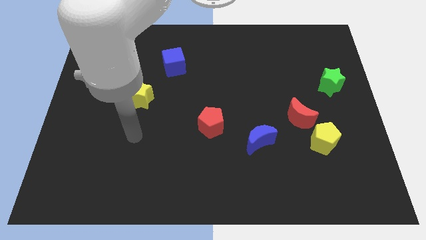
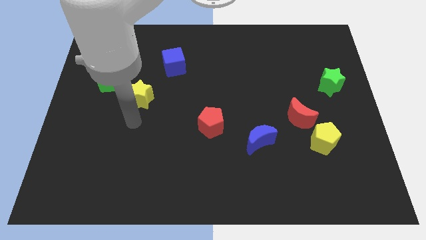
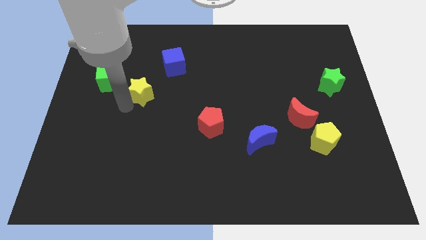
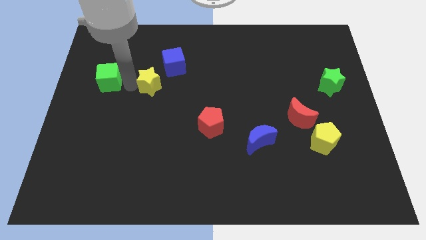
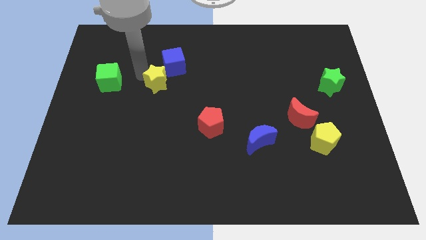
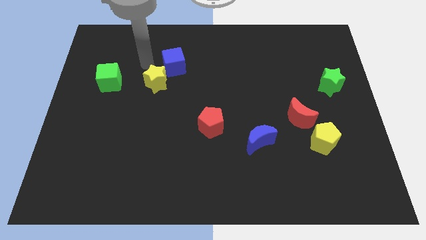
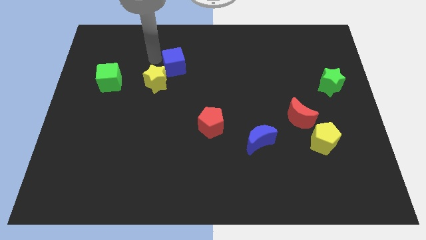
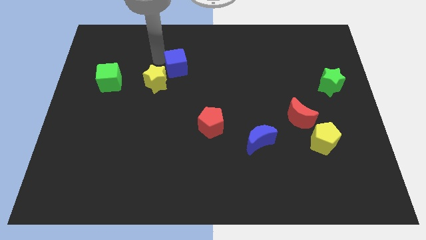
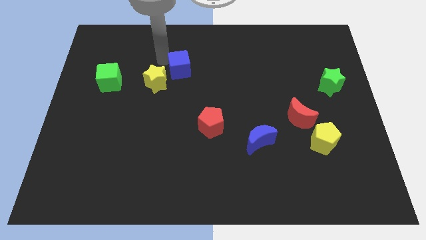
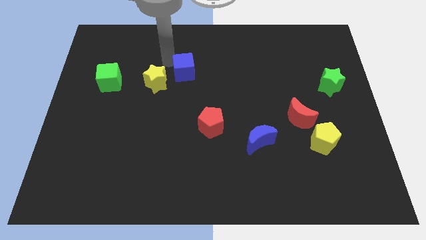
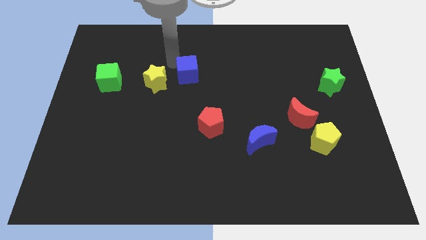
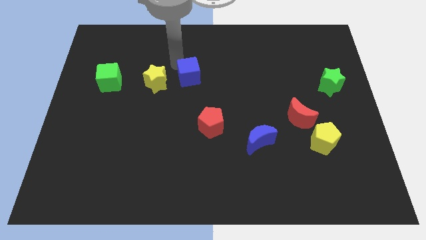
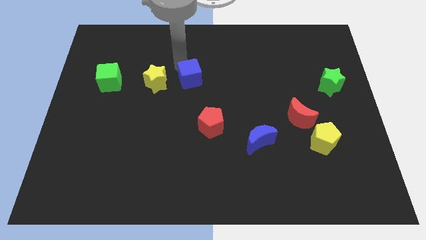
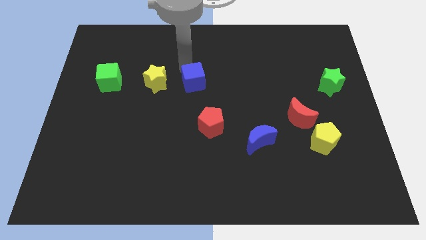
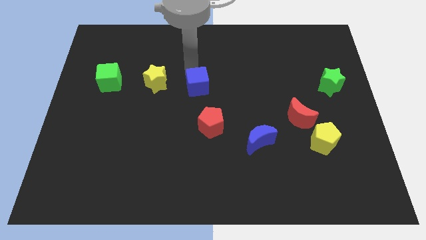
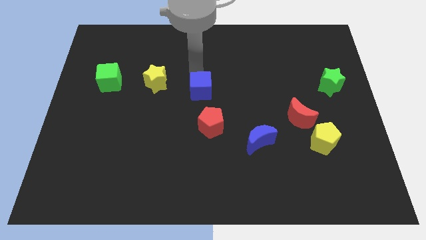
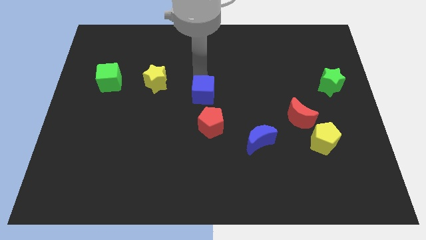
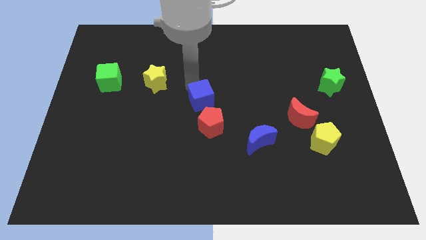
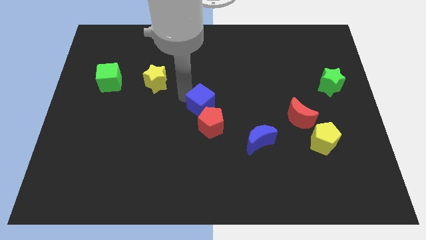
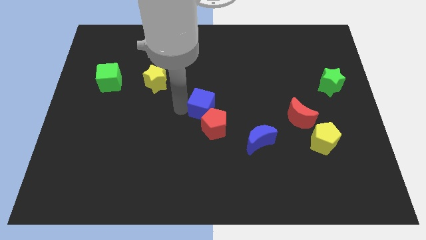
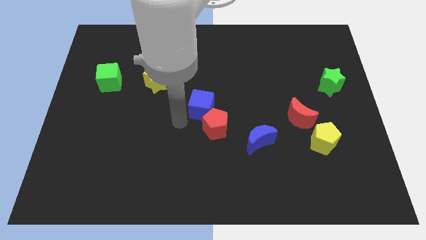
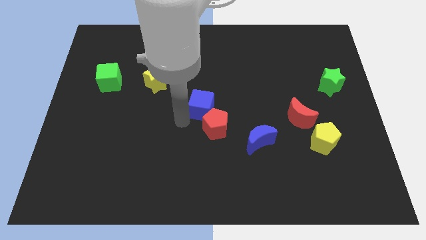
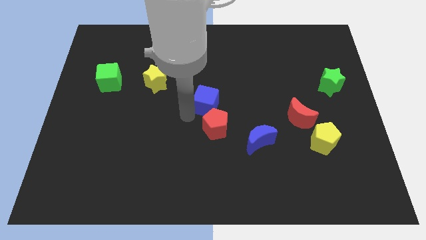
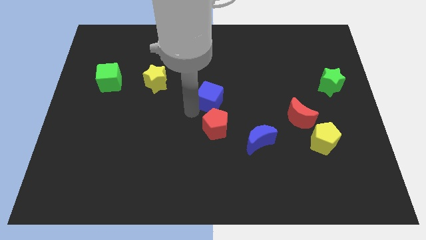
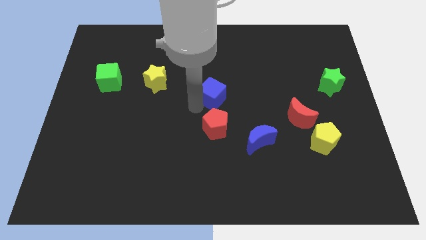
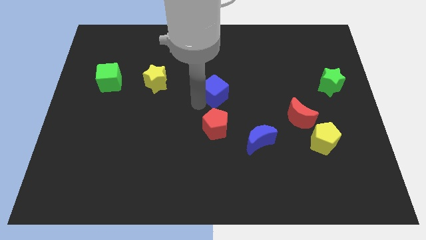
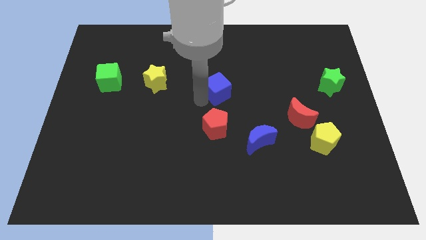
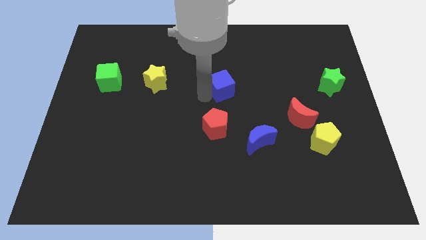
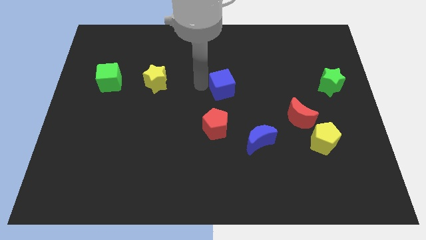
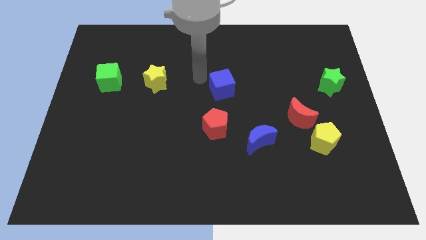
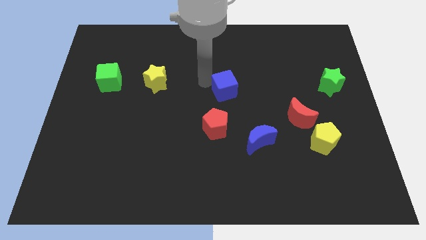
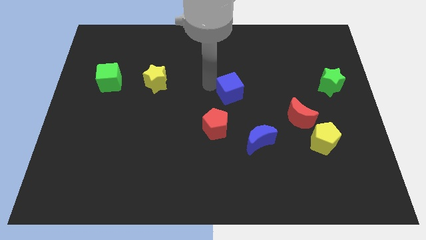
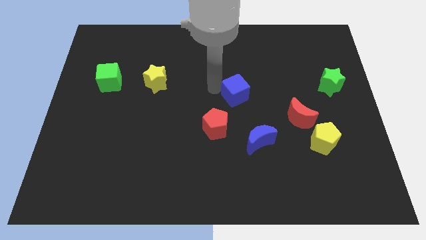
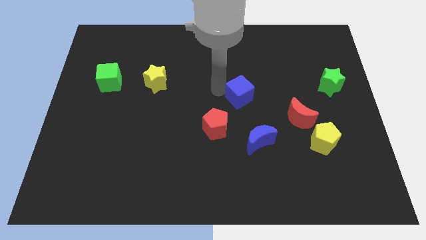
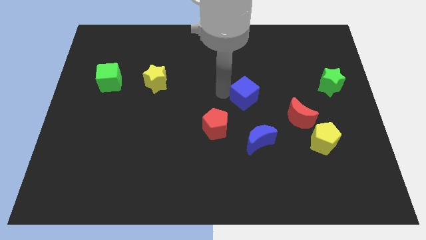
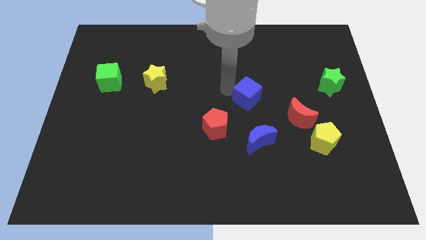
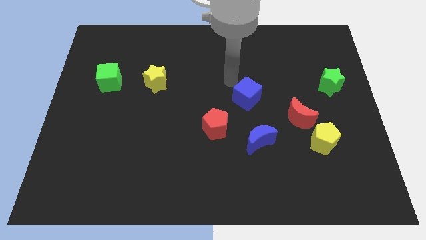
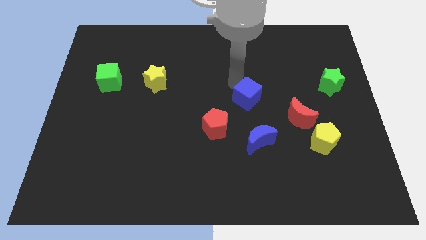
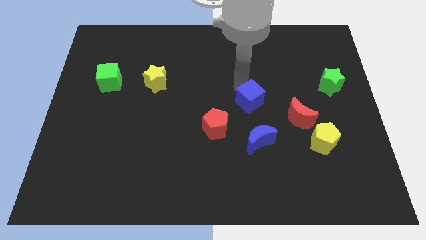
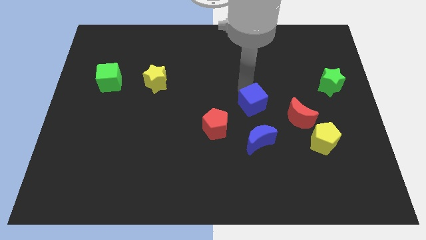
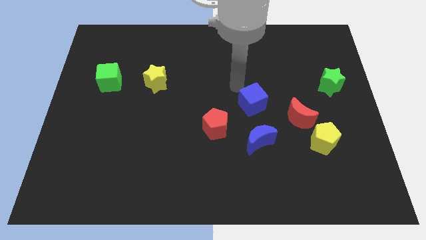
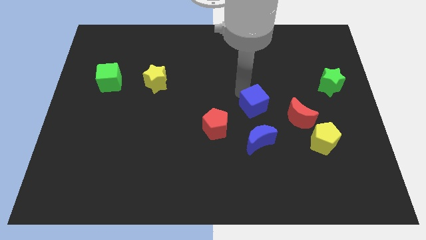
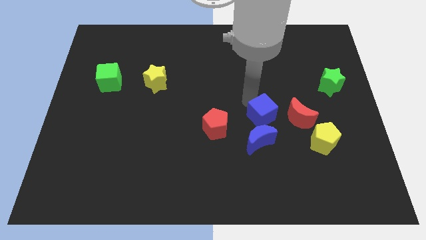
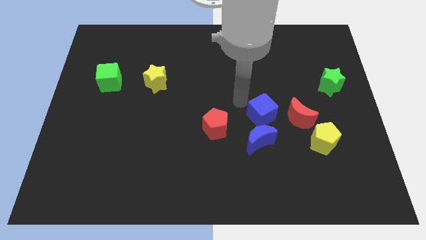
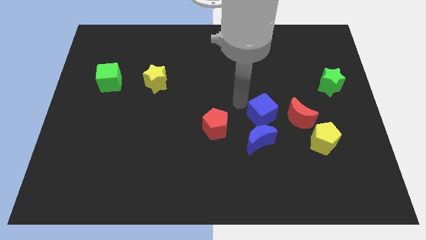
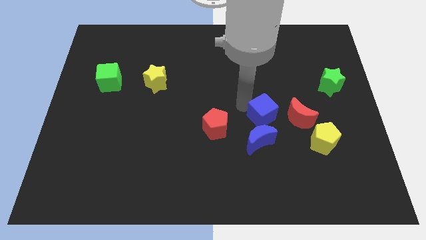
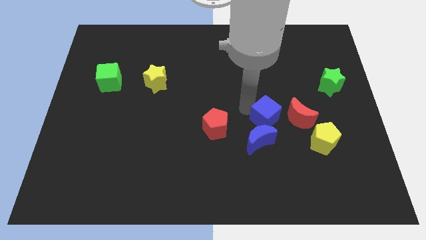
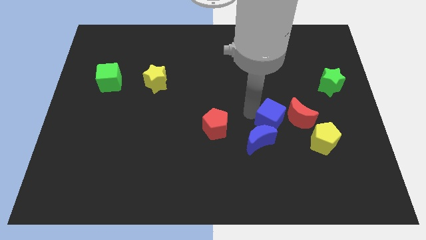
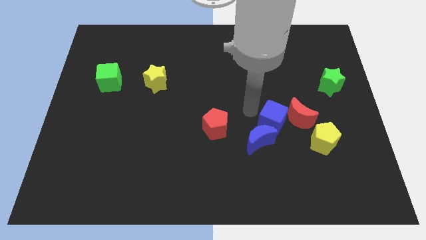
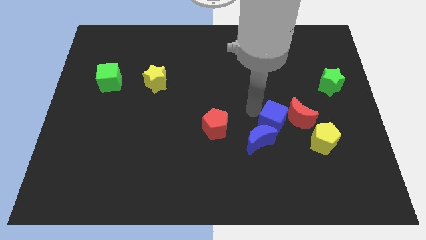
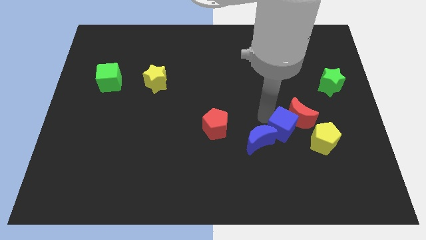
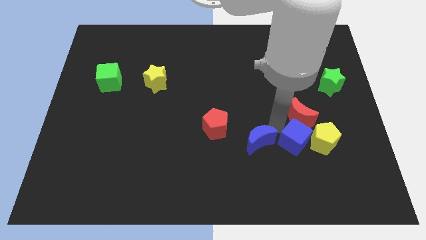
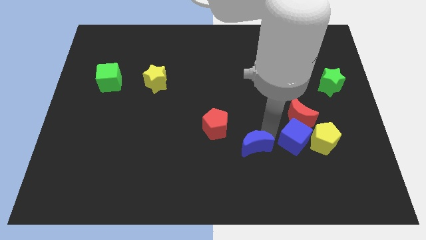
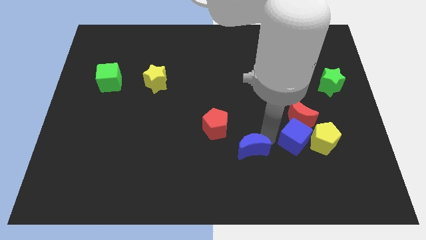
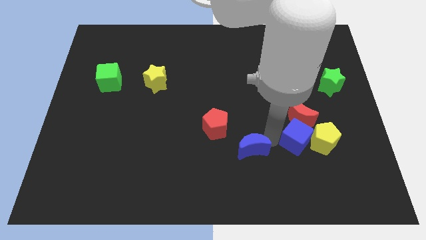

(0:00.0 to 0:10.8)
move the blue cube close to the yellow pentagon

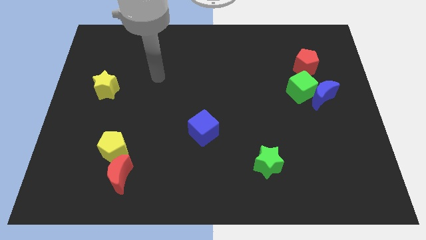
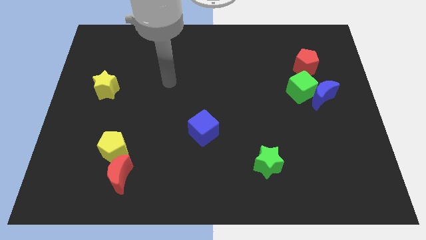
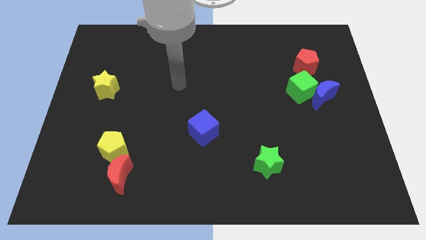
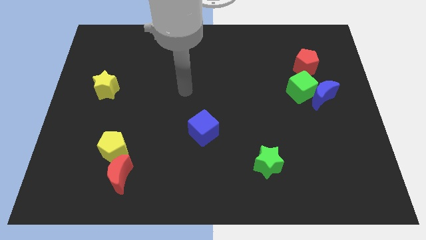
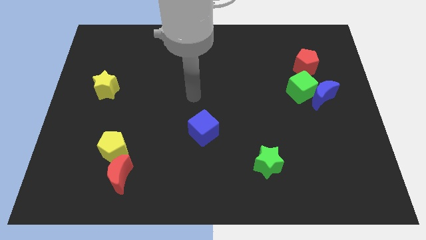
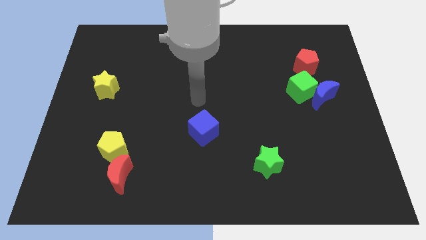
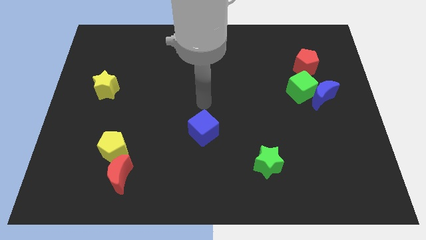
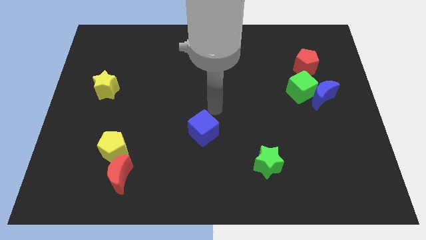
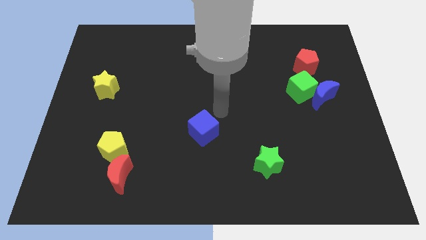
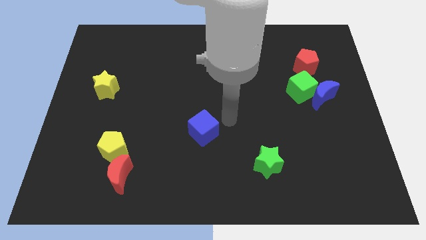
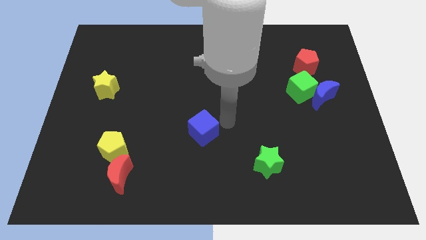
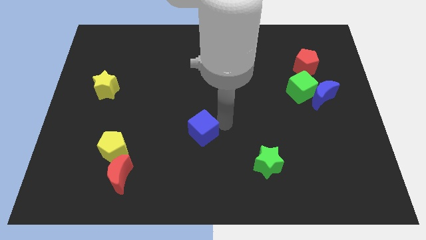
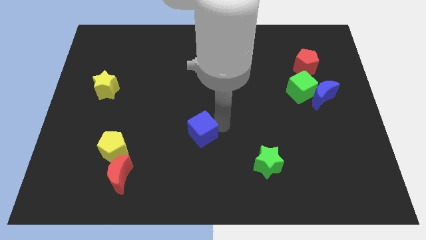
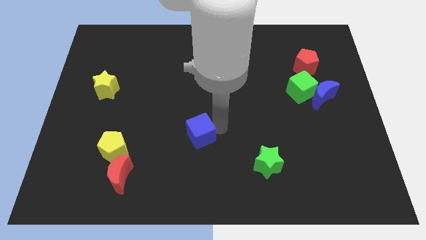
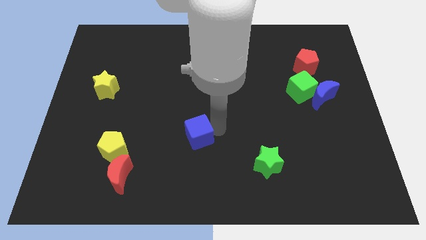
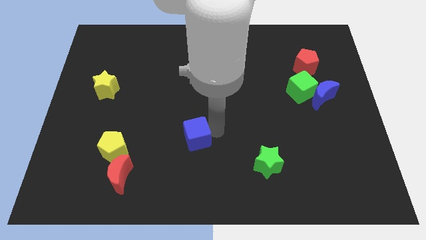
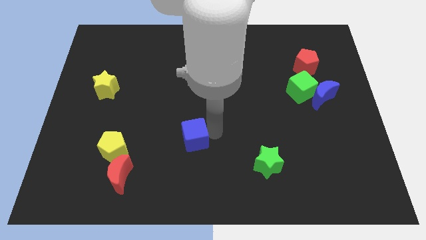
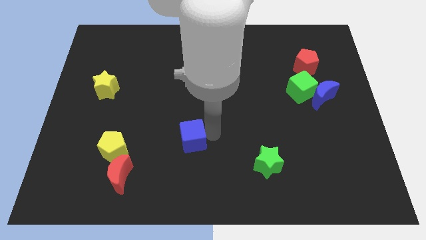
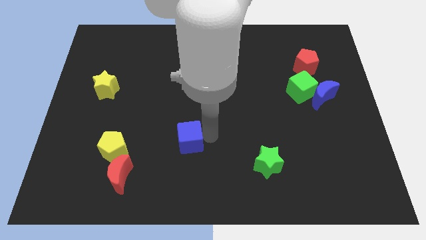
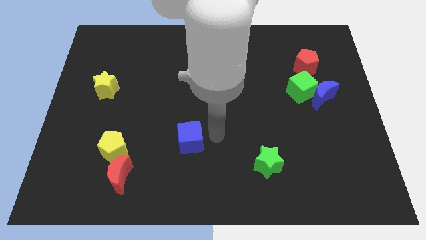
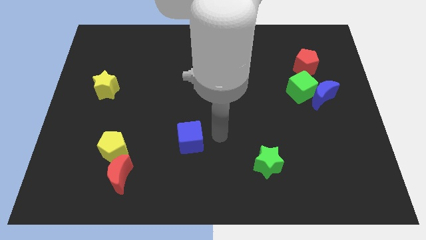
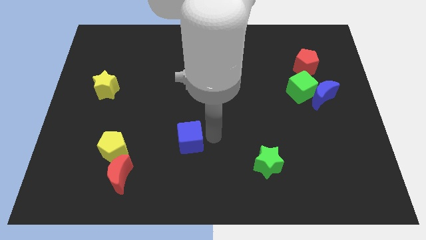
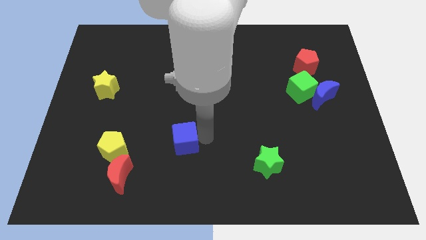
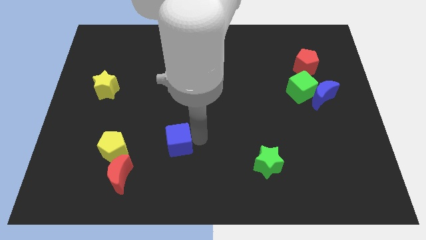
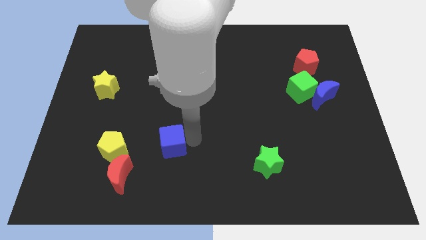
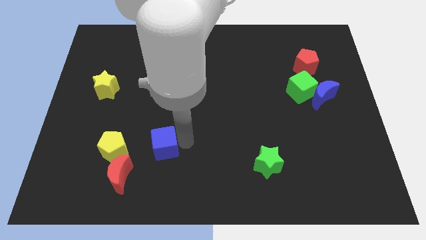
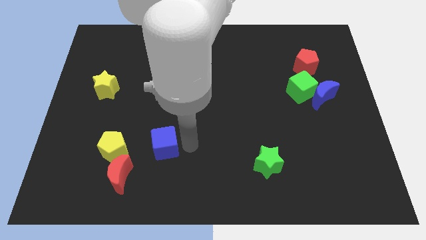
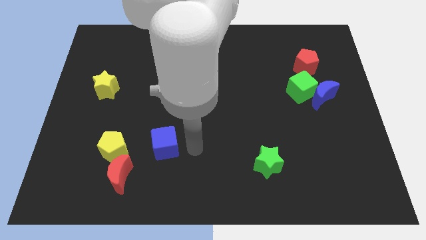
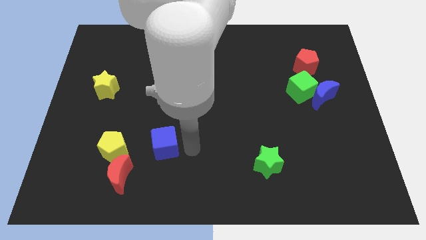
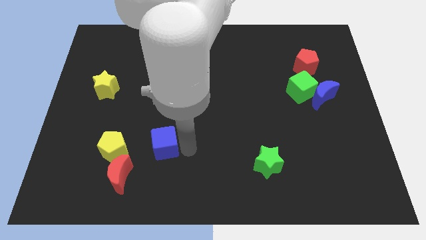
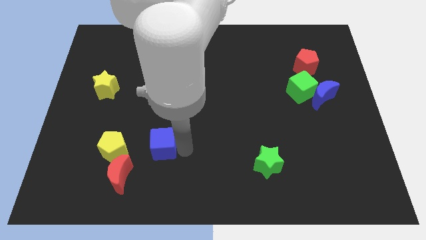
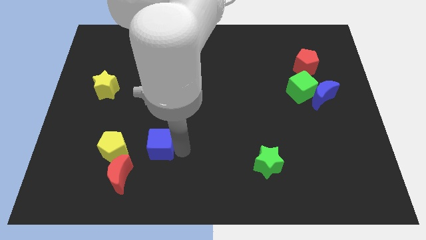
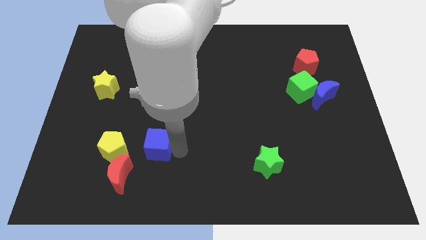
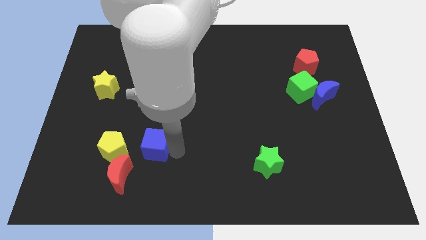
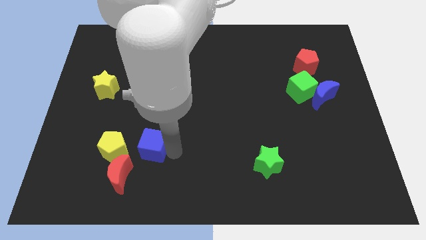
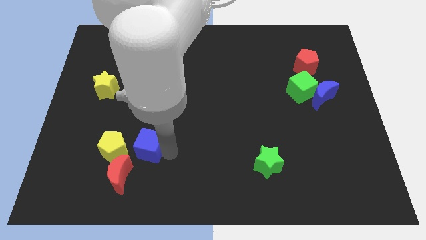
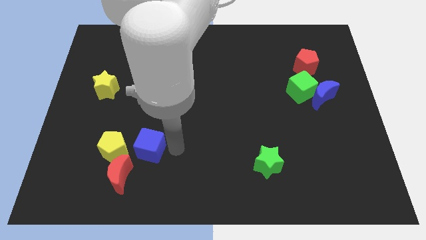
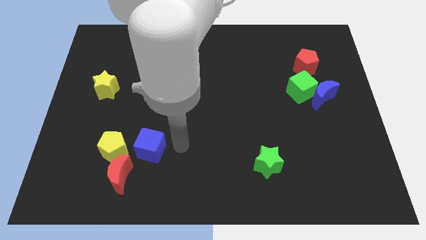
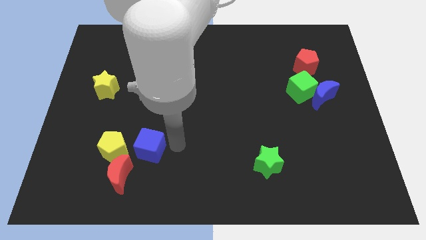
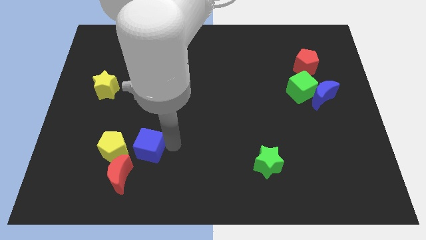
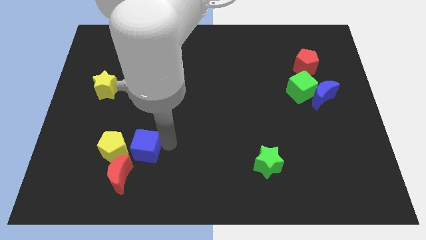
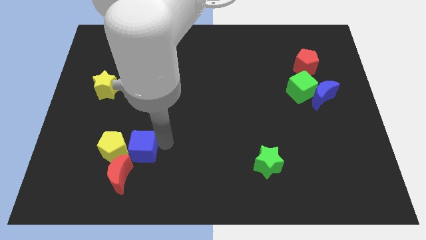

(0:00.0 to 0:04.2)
move the blue cube next to the yellow pentagon
